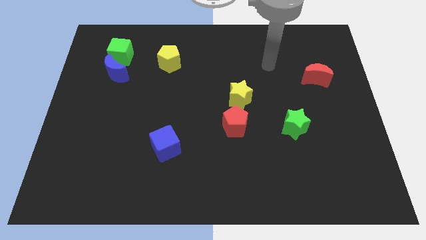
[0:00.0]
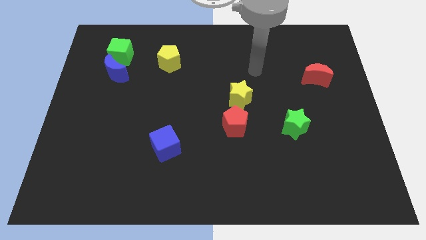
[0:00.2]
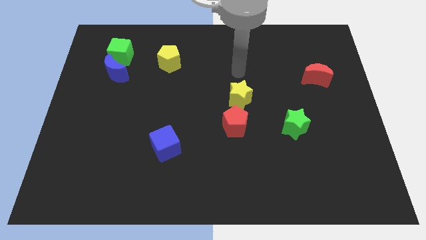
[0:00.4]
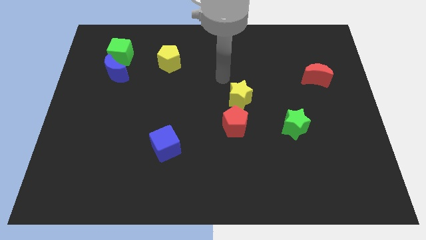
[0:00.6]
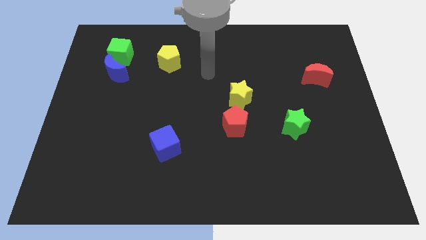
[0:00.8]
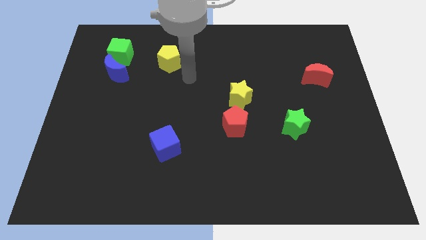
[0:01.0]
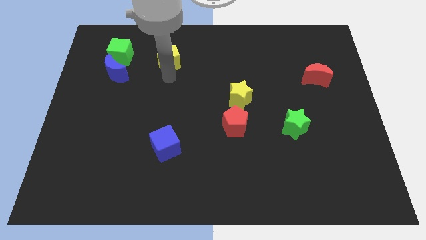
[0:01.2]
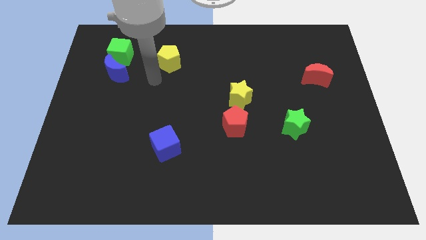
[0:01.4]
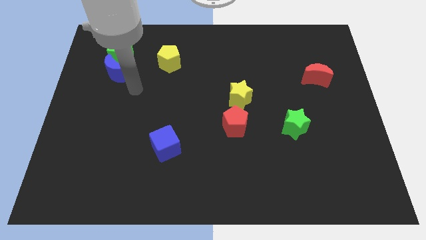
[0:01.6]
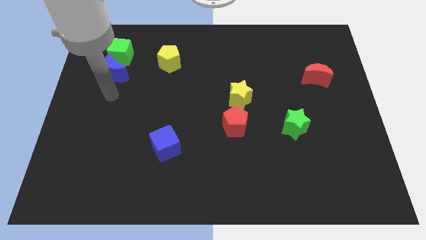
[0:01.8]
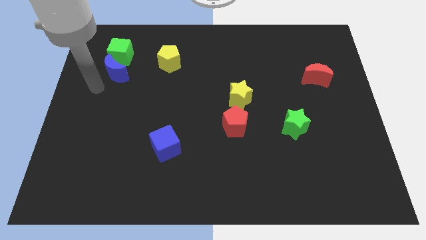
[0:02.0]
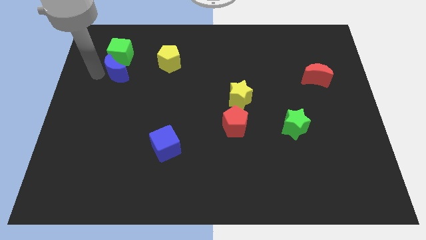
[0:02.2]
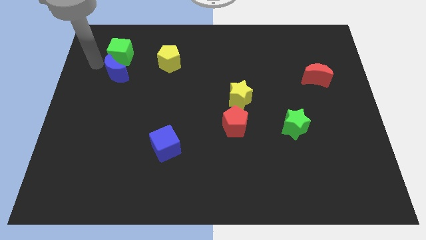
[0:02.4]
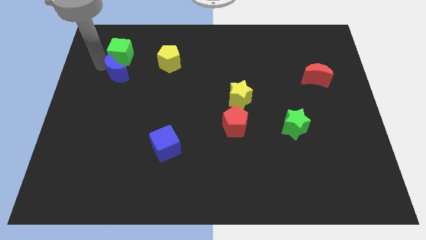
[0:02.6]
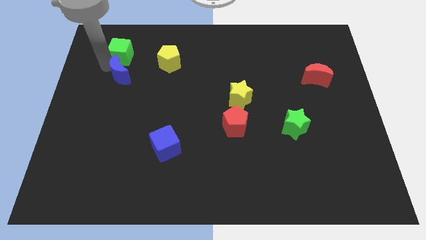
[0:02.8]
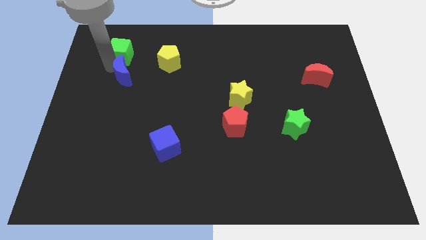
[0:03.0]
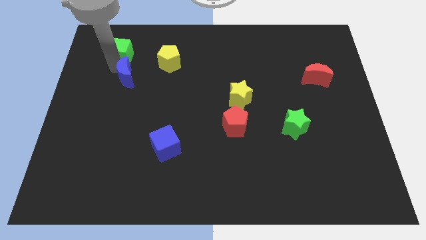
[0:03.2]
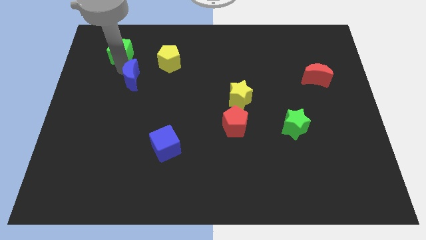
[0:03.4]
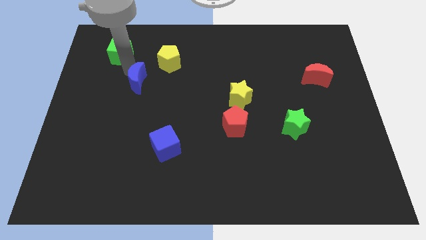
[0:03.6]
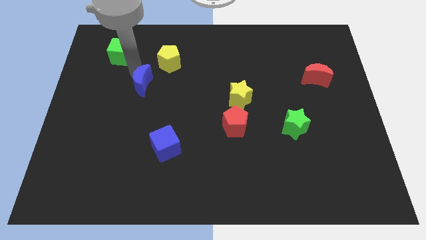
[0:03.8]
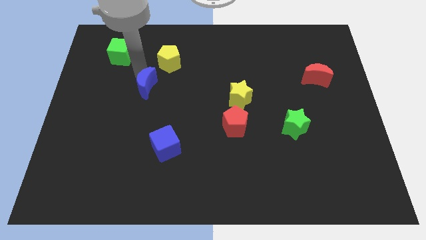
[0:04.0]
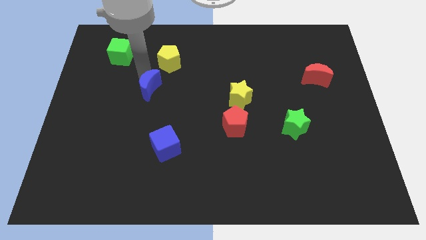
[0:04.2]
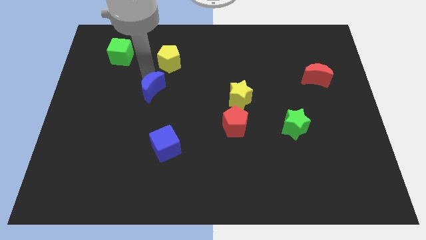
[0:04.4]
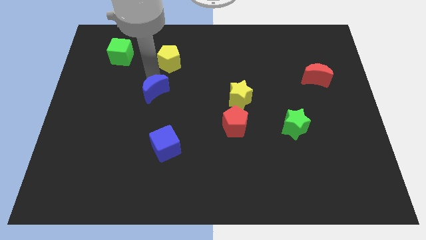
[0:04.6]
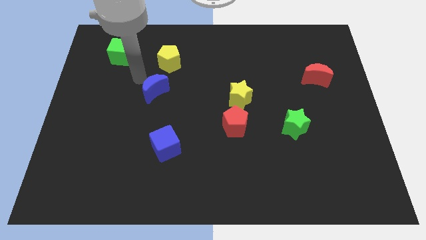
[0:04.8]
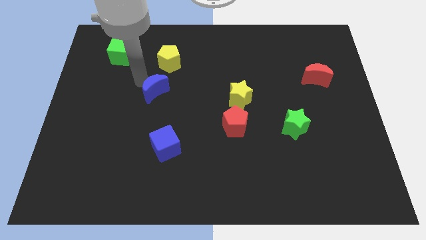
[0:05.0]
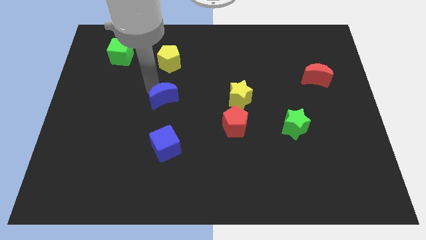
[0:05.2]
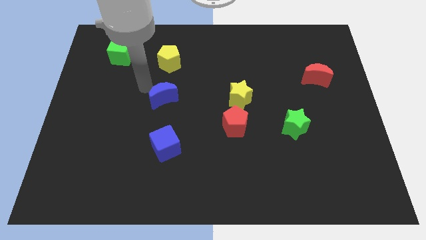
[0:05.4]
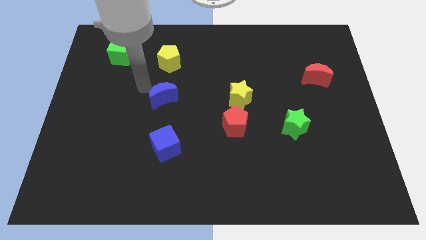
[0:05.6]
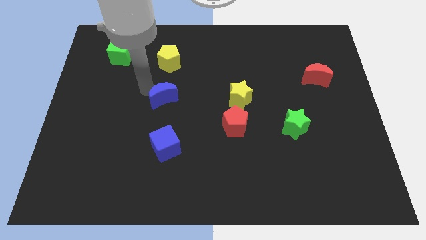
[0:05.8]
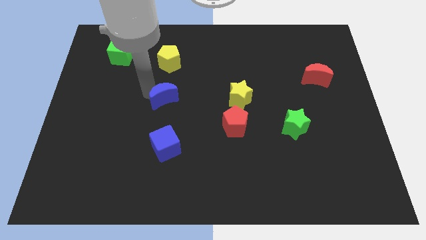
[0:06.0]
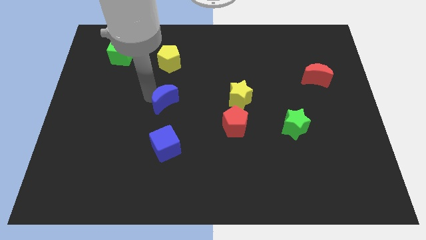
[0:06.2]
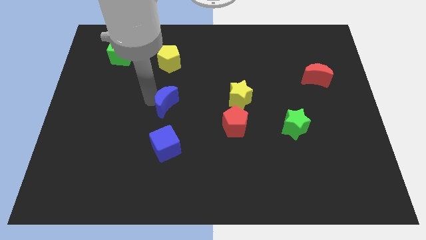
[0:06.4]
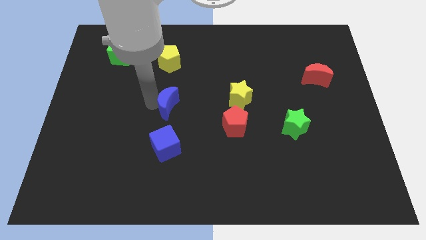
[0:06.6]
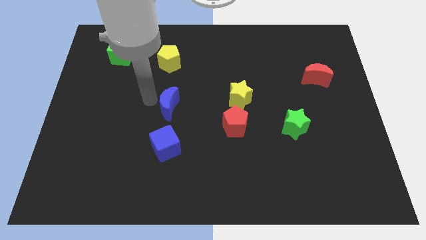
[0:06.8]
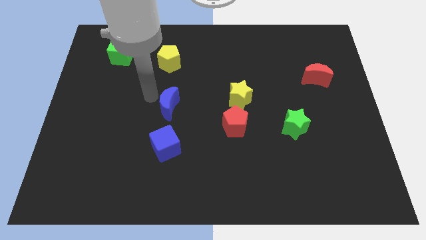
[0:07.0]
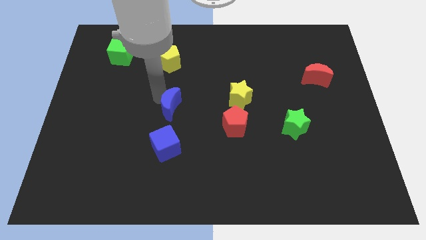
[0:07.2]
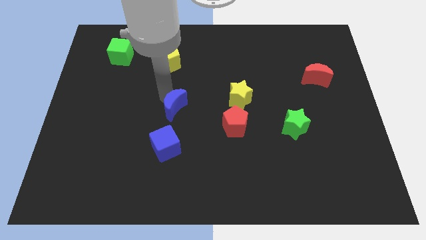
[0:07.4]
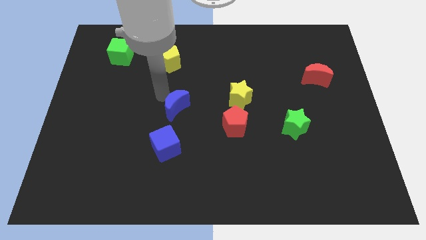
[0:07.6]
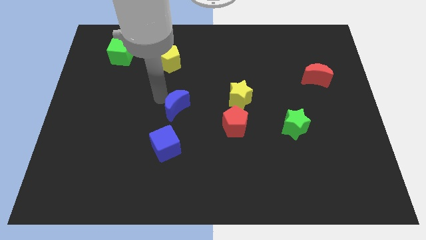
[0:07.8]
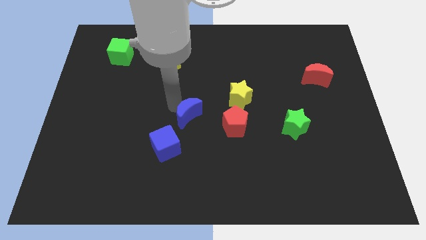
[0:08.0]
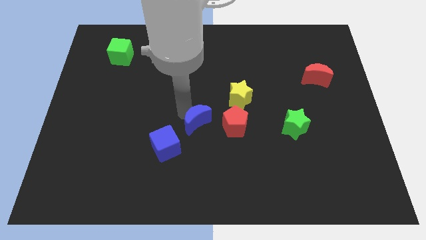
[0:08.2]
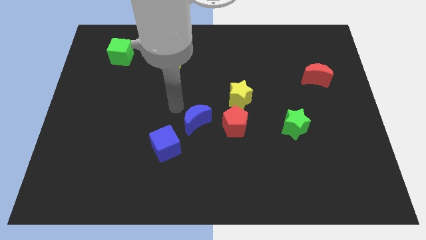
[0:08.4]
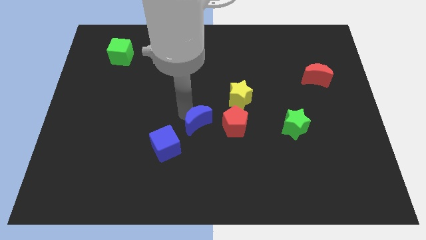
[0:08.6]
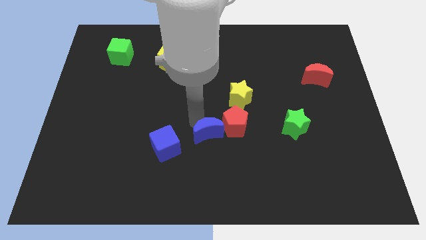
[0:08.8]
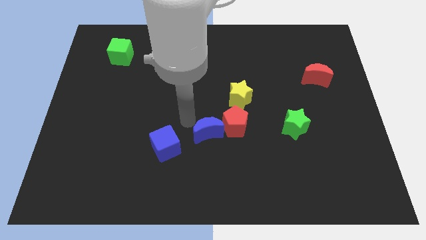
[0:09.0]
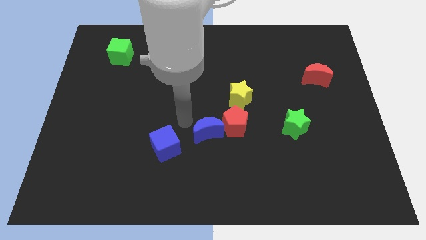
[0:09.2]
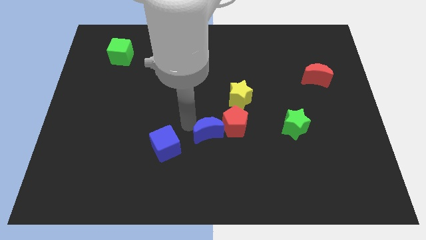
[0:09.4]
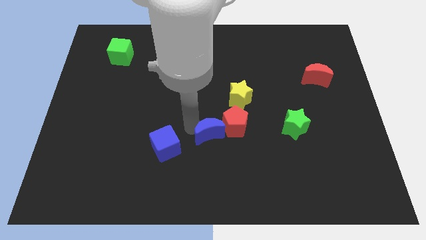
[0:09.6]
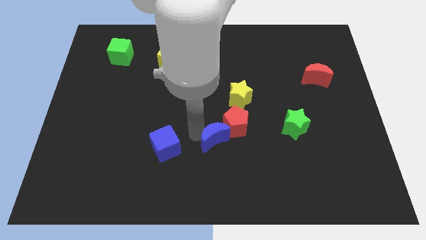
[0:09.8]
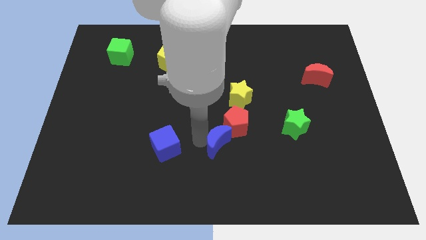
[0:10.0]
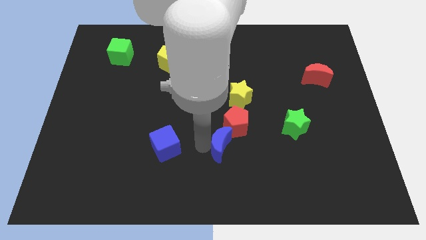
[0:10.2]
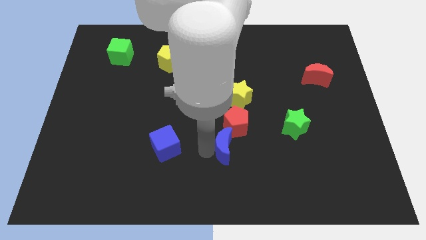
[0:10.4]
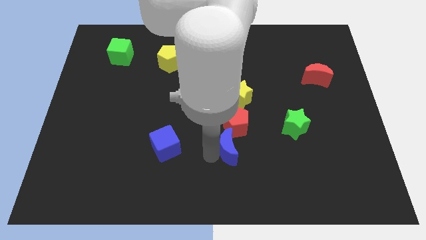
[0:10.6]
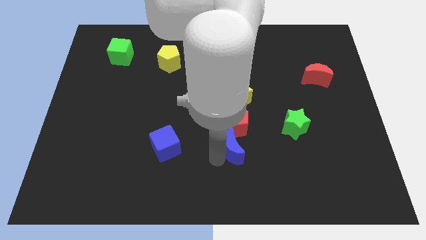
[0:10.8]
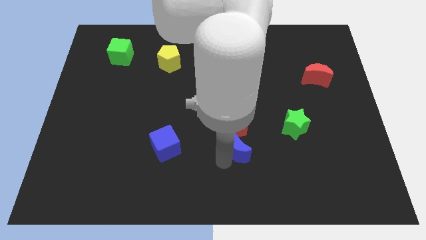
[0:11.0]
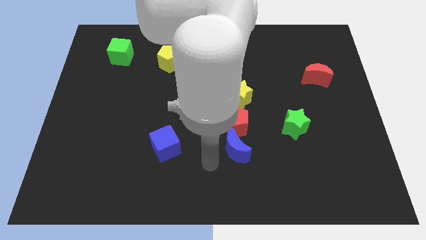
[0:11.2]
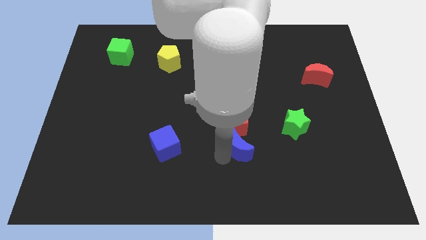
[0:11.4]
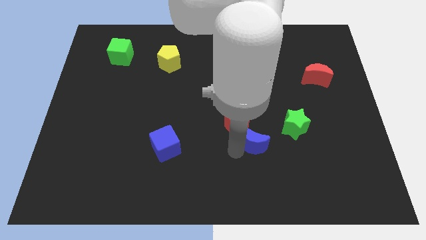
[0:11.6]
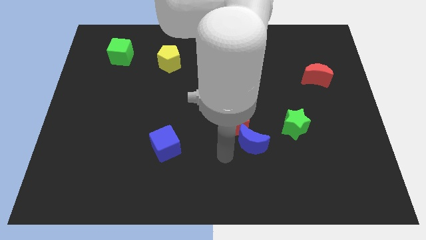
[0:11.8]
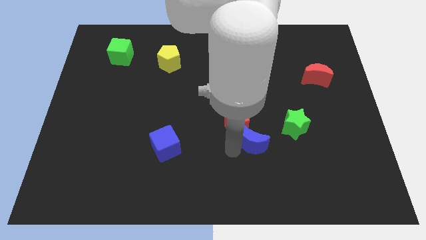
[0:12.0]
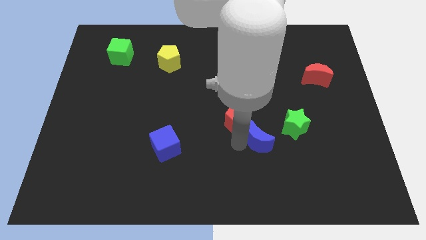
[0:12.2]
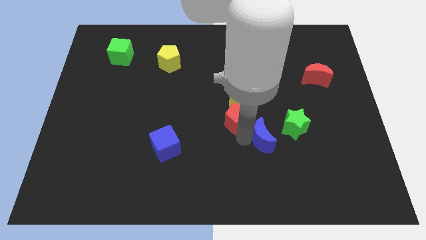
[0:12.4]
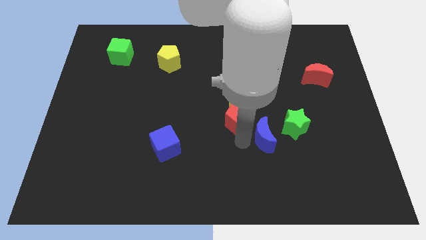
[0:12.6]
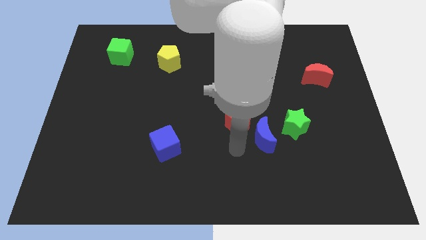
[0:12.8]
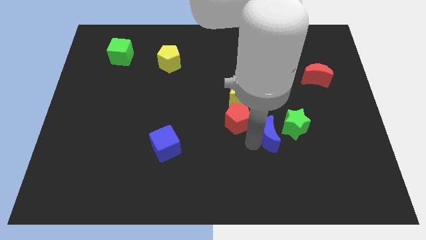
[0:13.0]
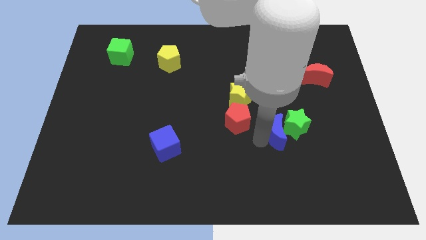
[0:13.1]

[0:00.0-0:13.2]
push the blue moon next to the green star

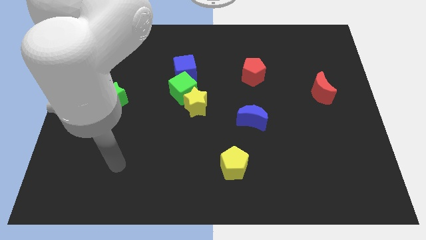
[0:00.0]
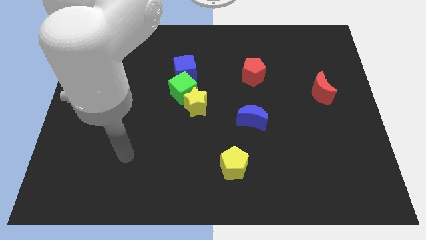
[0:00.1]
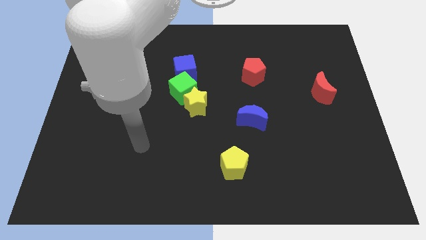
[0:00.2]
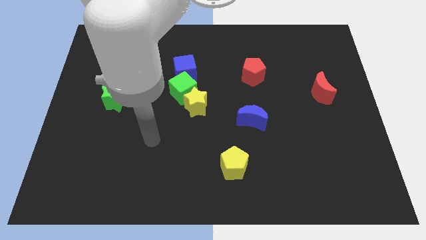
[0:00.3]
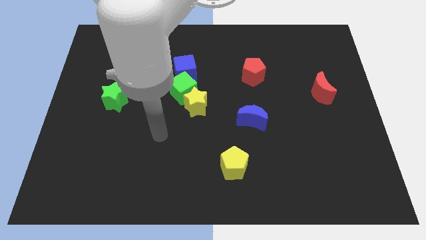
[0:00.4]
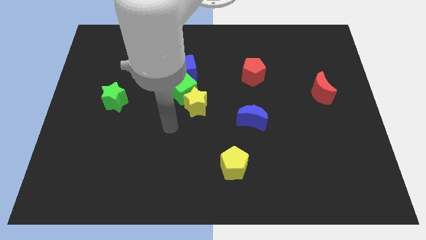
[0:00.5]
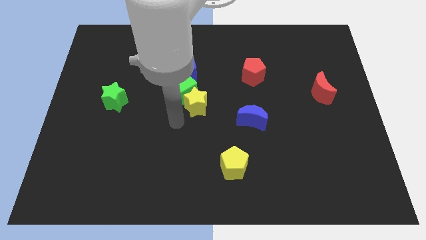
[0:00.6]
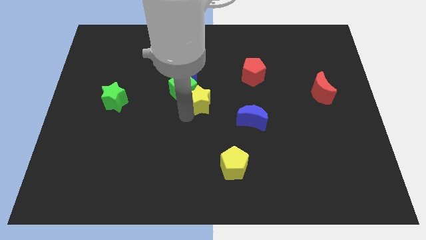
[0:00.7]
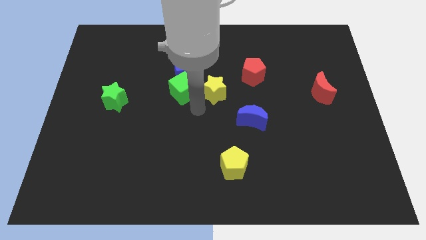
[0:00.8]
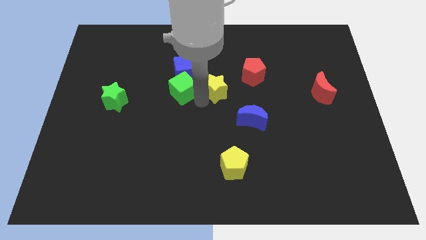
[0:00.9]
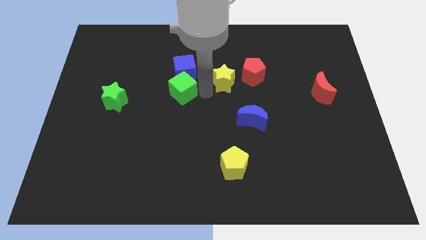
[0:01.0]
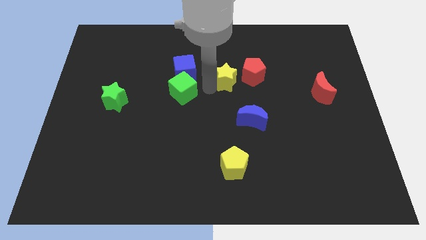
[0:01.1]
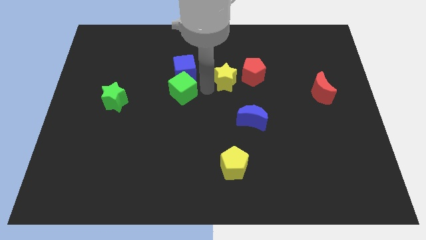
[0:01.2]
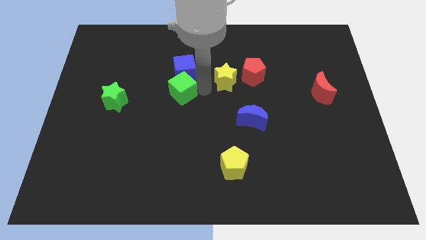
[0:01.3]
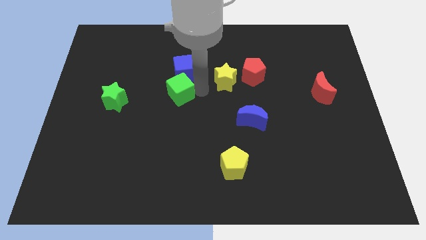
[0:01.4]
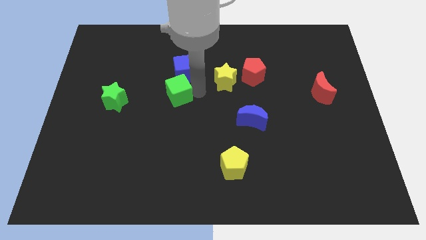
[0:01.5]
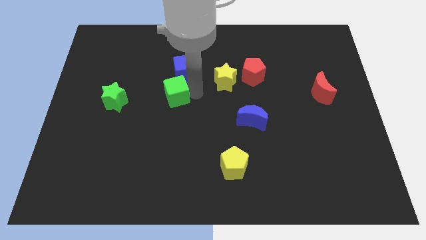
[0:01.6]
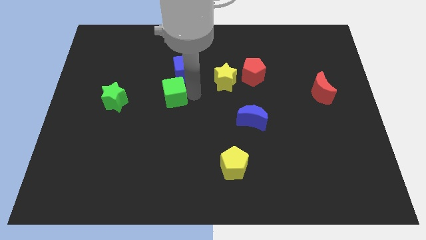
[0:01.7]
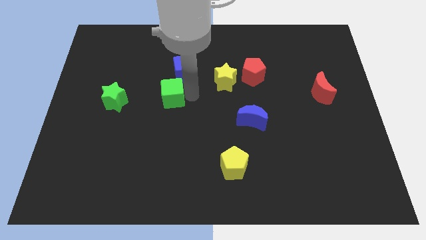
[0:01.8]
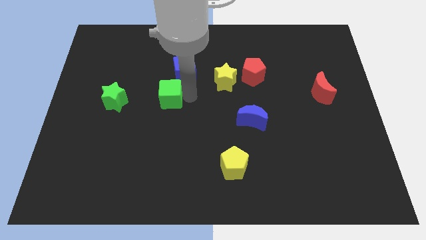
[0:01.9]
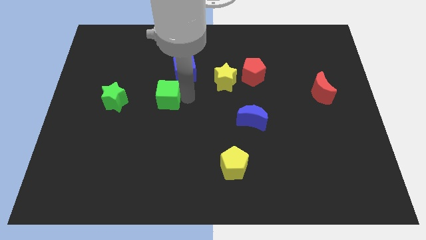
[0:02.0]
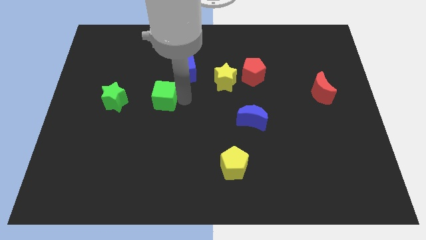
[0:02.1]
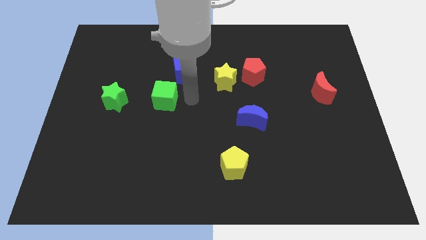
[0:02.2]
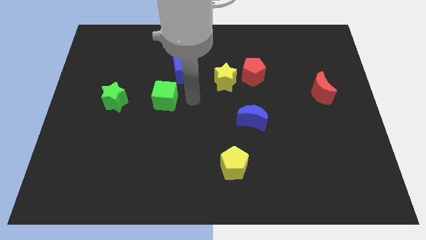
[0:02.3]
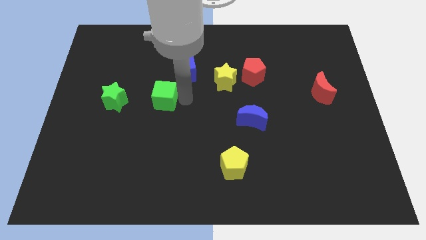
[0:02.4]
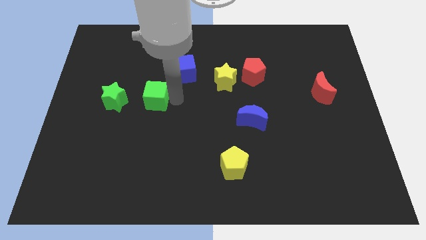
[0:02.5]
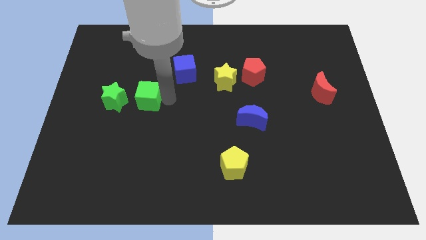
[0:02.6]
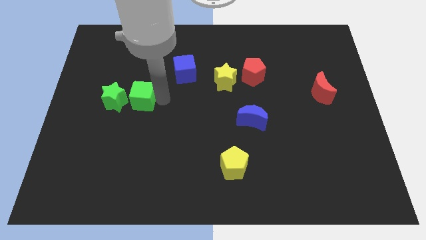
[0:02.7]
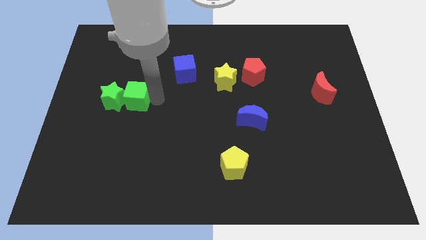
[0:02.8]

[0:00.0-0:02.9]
push the green cube towards the green star
